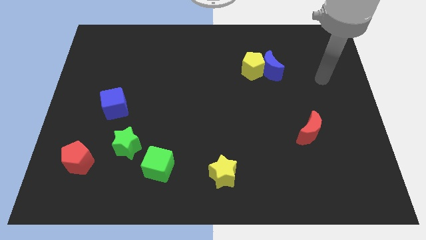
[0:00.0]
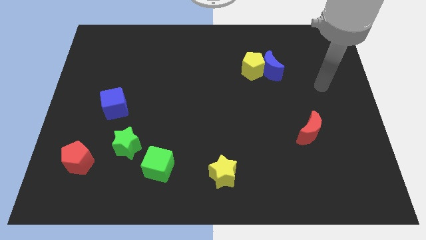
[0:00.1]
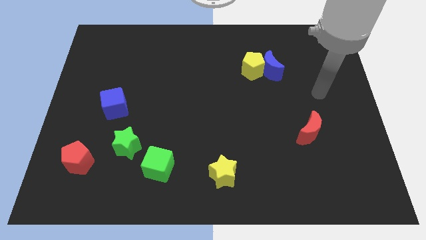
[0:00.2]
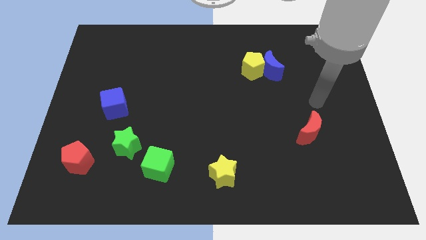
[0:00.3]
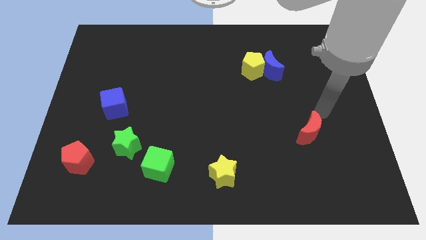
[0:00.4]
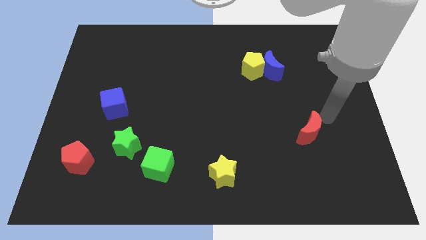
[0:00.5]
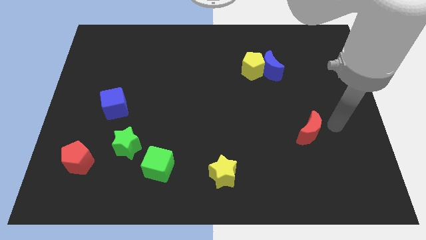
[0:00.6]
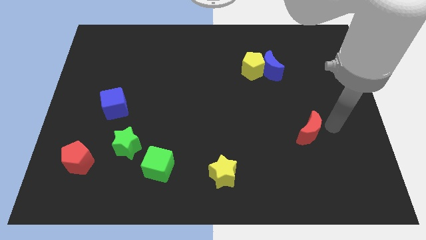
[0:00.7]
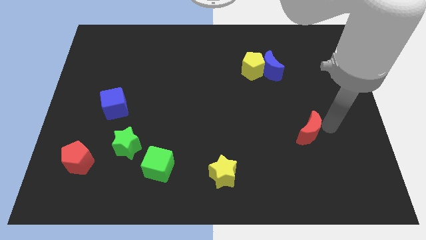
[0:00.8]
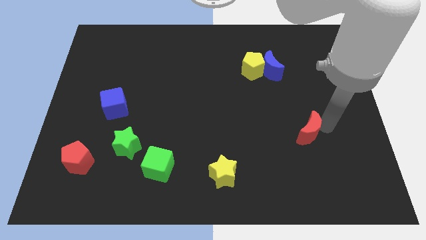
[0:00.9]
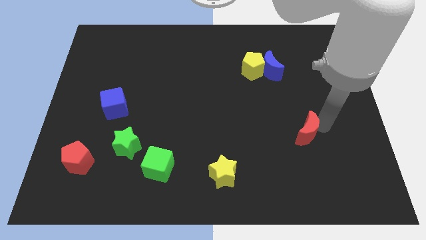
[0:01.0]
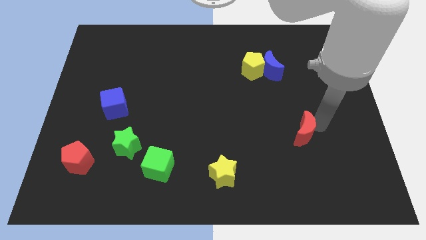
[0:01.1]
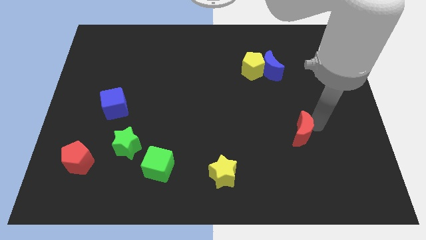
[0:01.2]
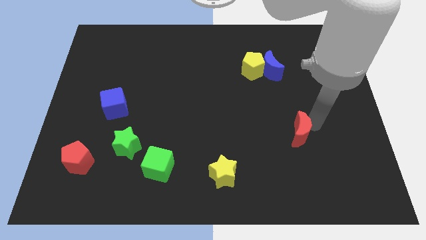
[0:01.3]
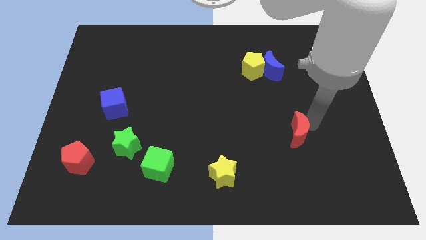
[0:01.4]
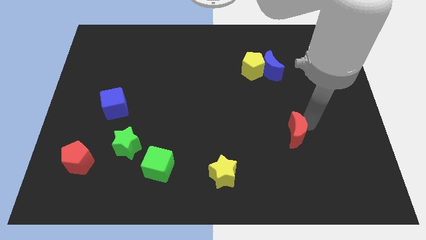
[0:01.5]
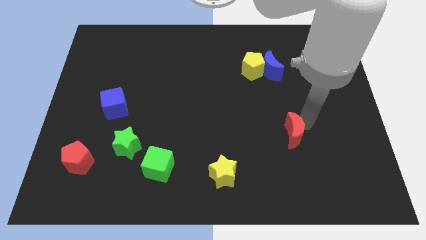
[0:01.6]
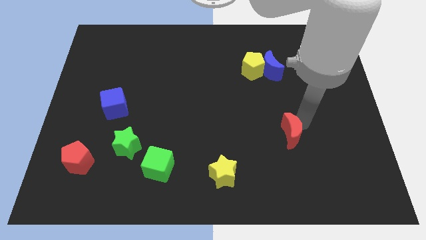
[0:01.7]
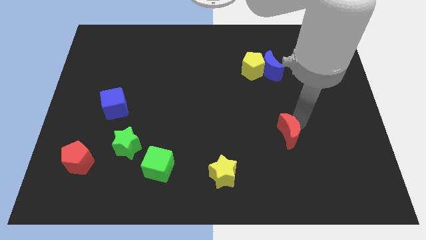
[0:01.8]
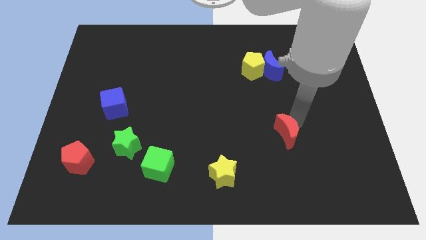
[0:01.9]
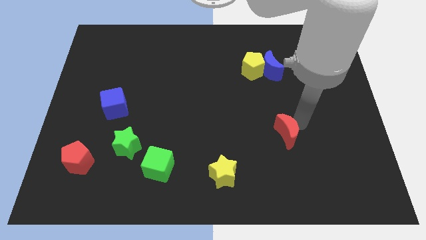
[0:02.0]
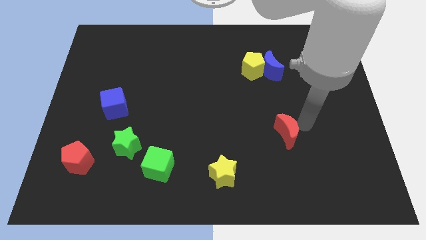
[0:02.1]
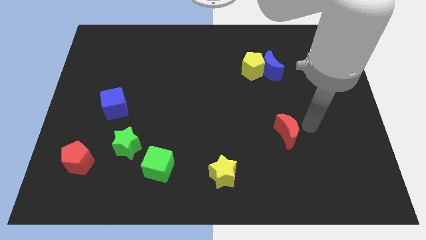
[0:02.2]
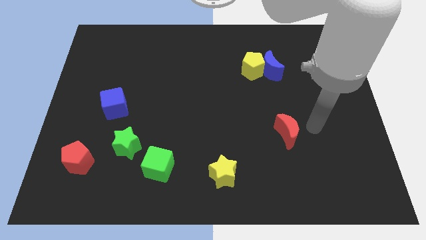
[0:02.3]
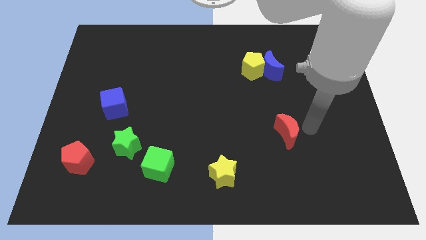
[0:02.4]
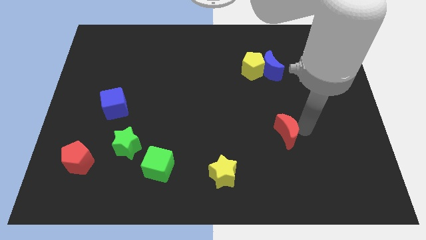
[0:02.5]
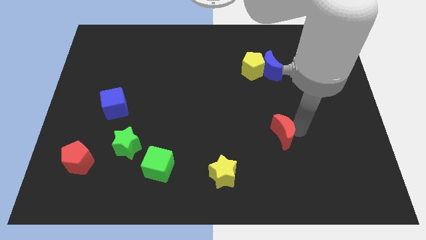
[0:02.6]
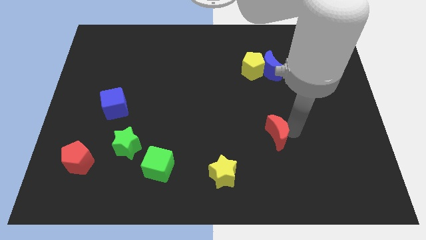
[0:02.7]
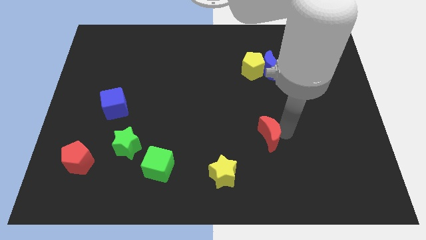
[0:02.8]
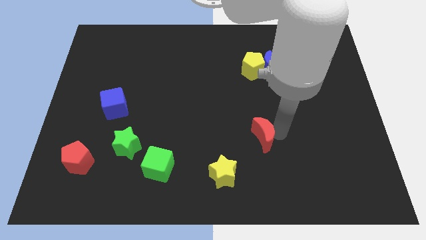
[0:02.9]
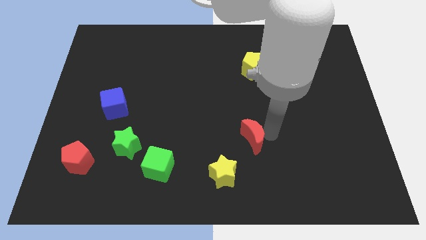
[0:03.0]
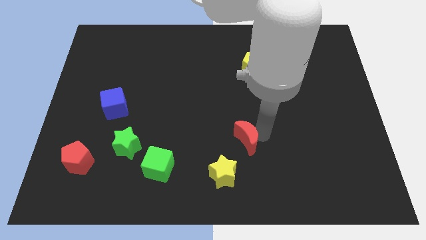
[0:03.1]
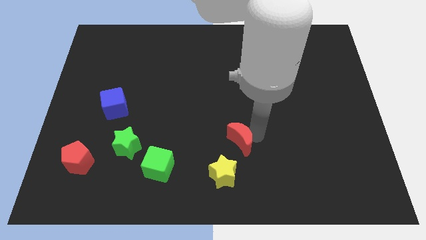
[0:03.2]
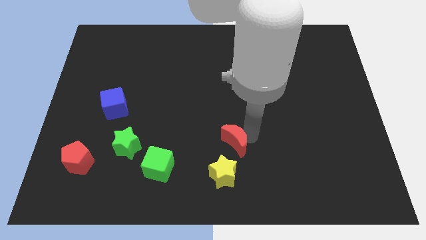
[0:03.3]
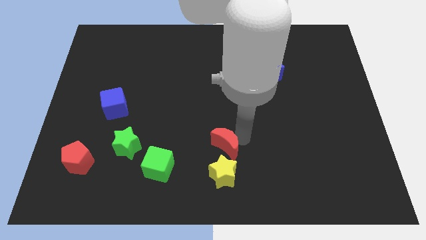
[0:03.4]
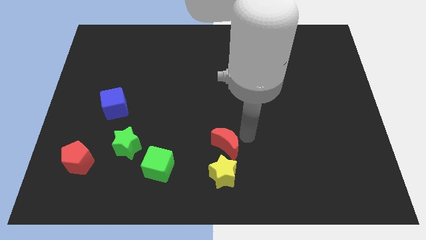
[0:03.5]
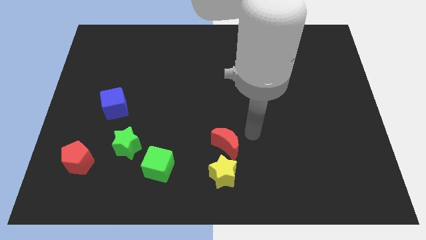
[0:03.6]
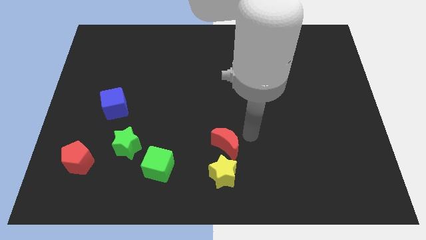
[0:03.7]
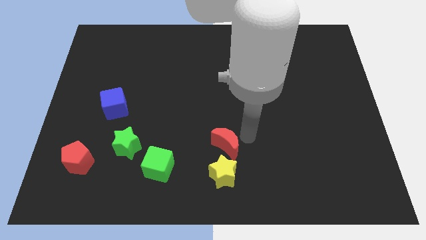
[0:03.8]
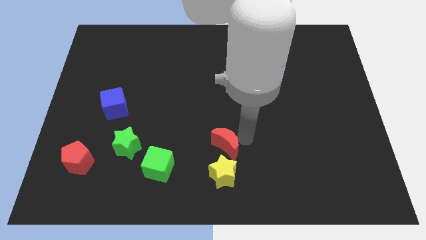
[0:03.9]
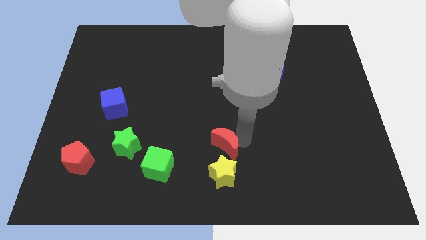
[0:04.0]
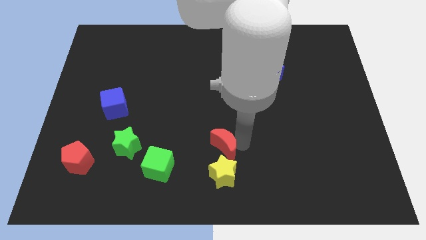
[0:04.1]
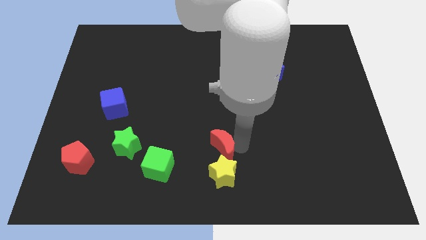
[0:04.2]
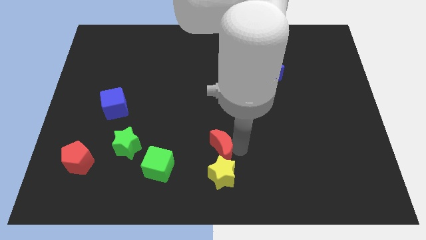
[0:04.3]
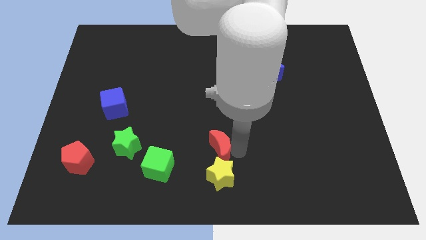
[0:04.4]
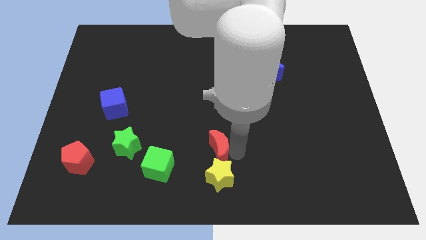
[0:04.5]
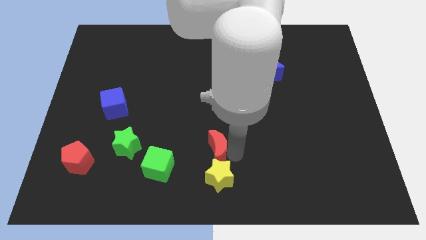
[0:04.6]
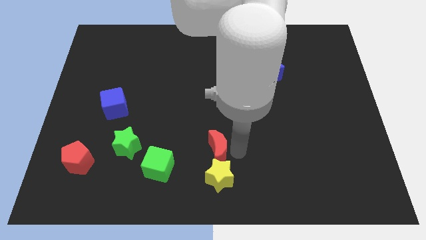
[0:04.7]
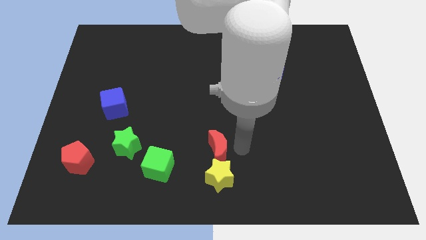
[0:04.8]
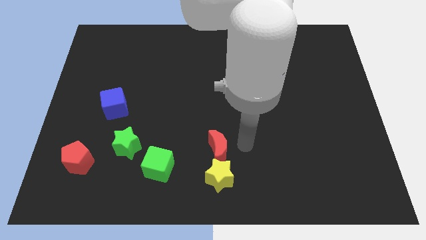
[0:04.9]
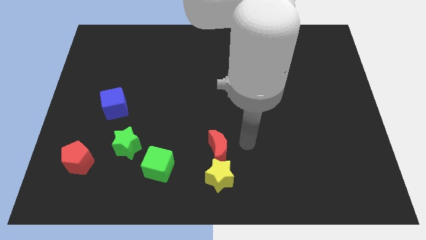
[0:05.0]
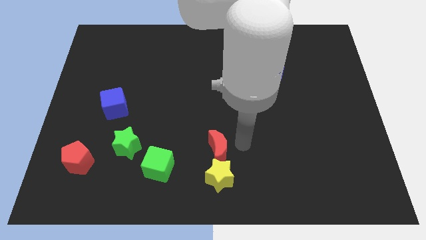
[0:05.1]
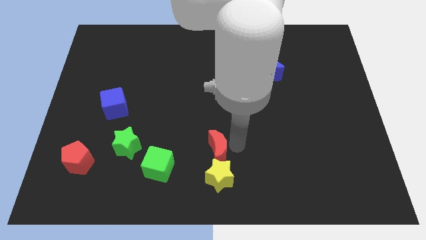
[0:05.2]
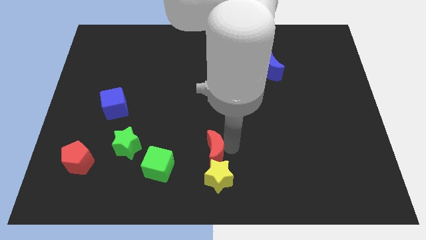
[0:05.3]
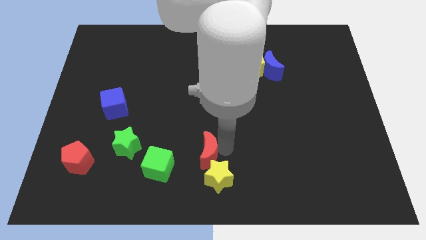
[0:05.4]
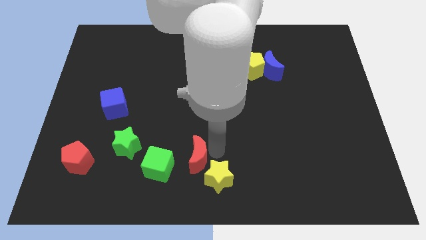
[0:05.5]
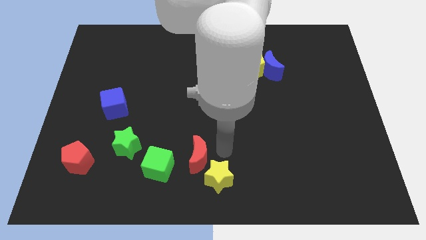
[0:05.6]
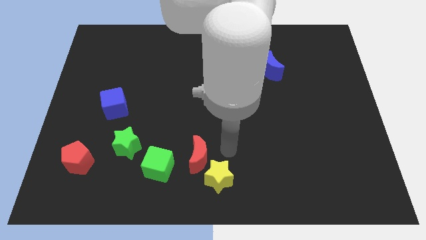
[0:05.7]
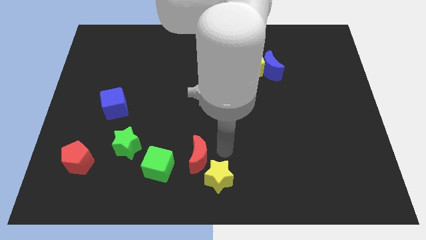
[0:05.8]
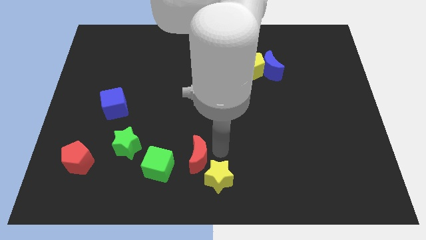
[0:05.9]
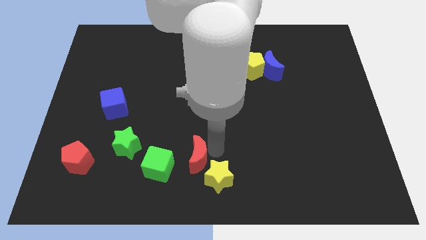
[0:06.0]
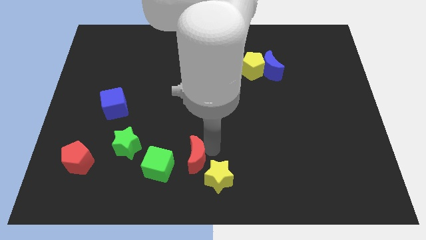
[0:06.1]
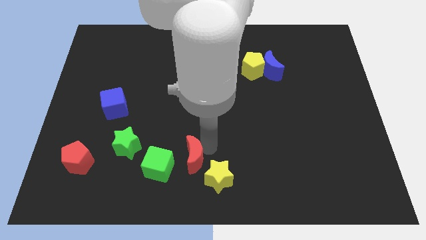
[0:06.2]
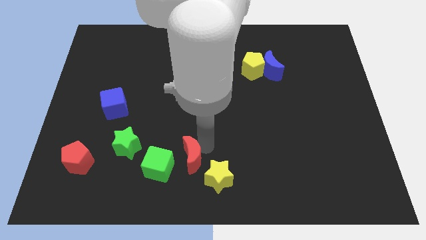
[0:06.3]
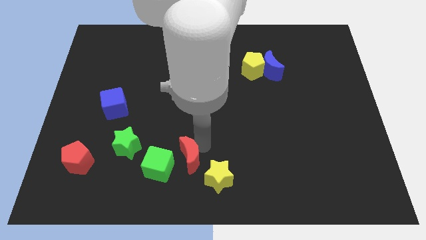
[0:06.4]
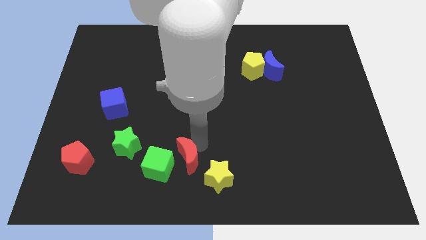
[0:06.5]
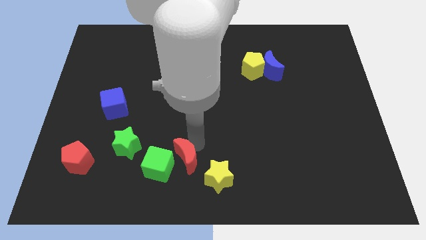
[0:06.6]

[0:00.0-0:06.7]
move the red moon to the green cube
